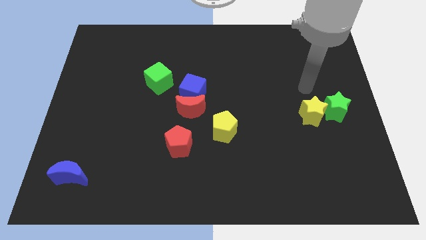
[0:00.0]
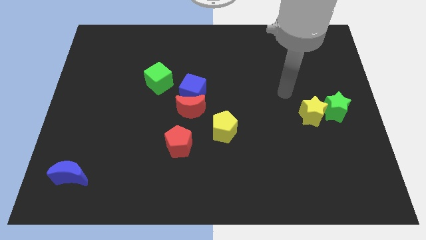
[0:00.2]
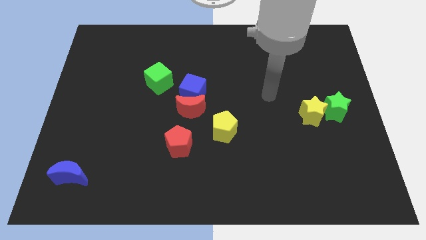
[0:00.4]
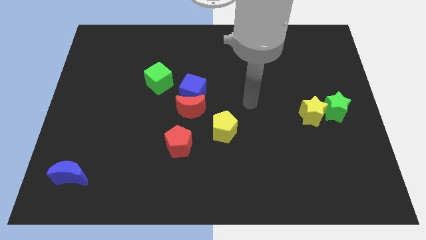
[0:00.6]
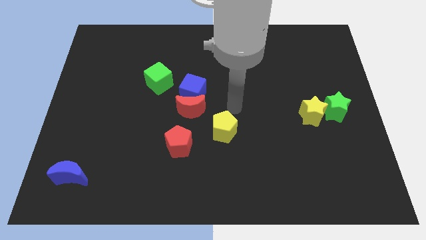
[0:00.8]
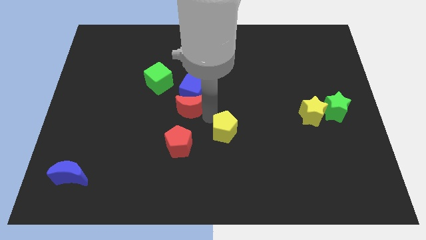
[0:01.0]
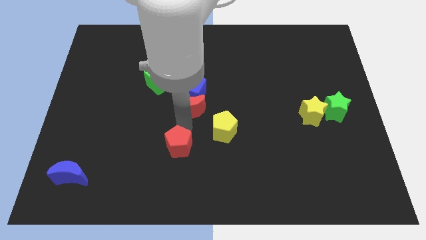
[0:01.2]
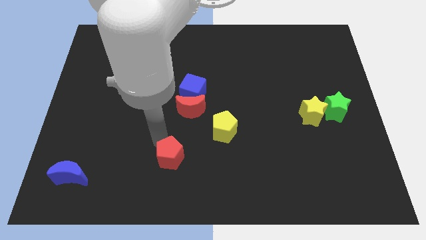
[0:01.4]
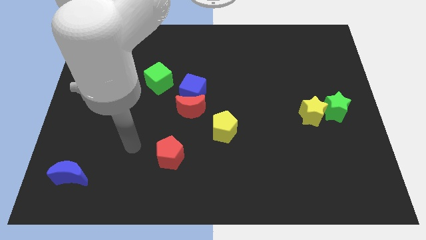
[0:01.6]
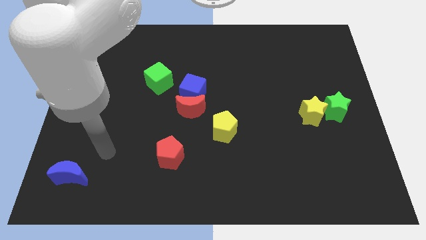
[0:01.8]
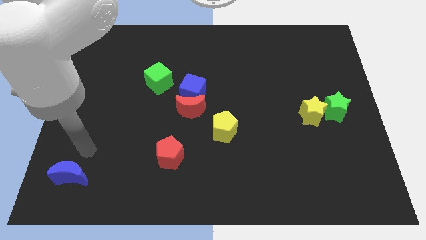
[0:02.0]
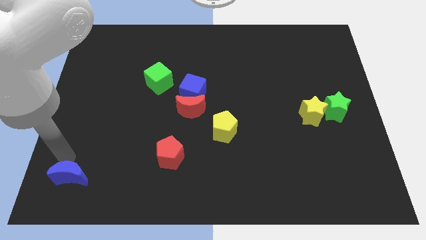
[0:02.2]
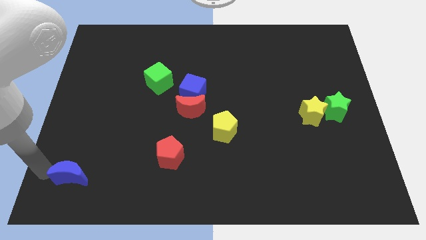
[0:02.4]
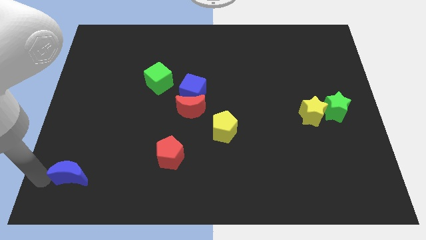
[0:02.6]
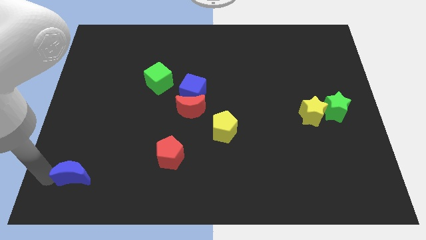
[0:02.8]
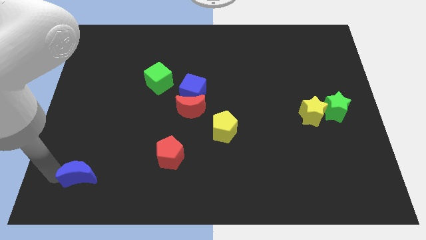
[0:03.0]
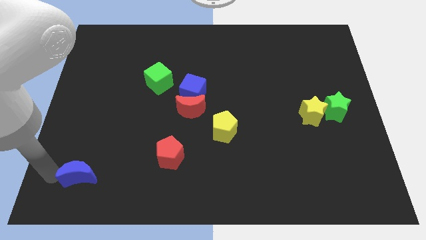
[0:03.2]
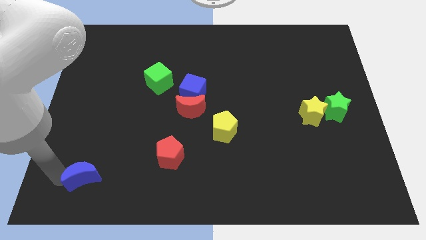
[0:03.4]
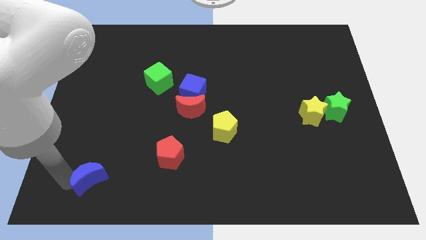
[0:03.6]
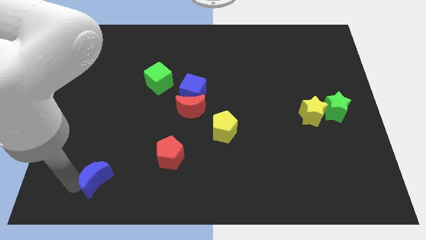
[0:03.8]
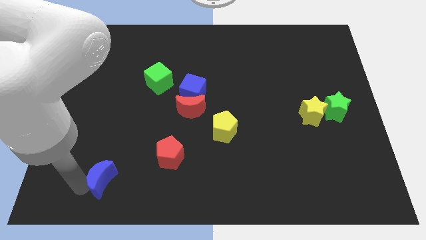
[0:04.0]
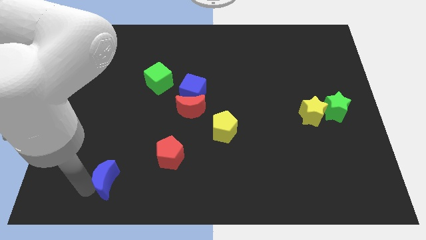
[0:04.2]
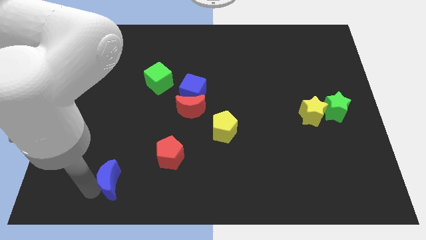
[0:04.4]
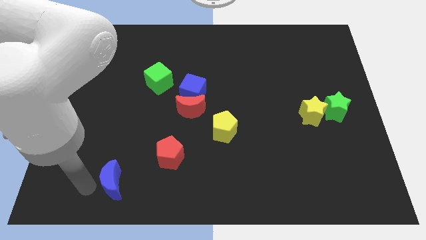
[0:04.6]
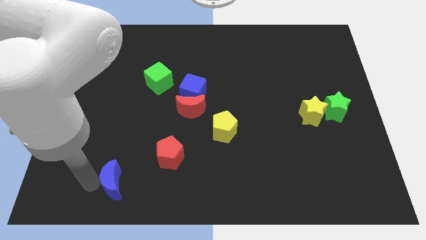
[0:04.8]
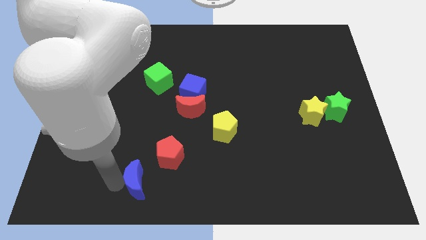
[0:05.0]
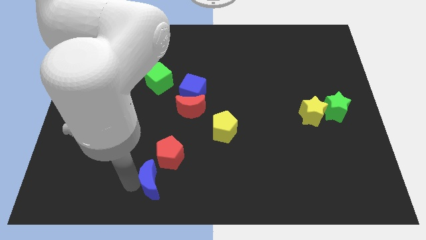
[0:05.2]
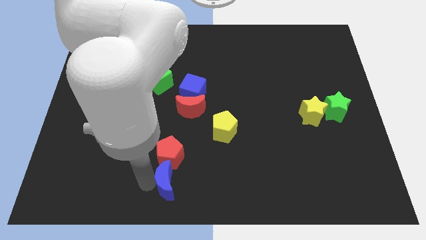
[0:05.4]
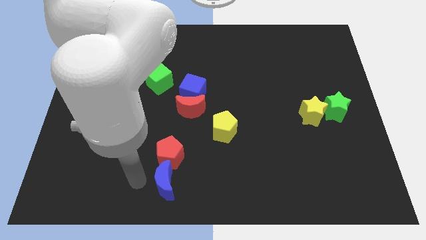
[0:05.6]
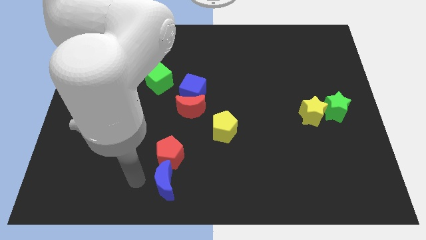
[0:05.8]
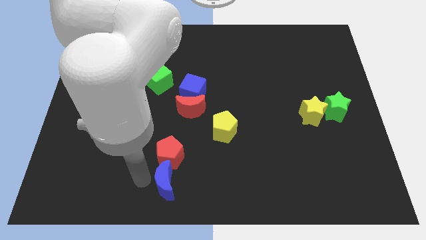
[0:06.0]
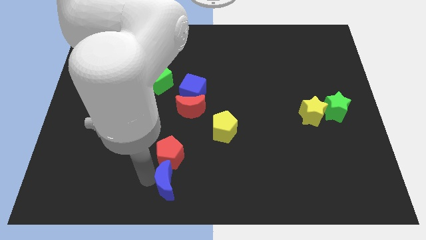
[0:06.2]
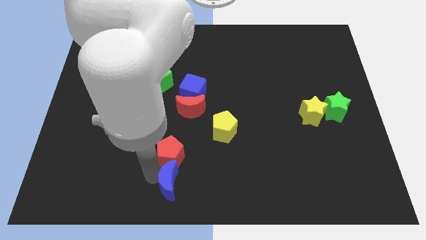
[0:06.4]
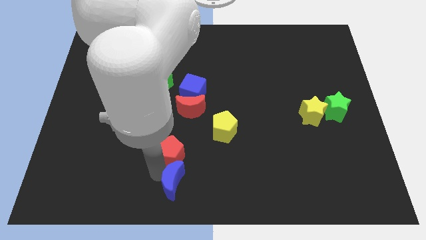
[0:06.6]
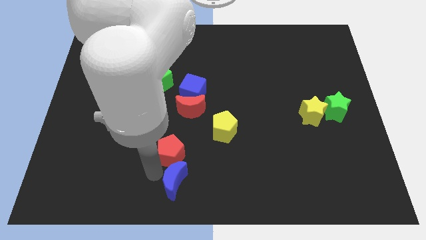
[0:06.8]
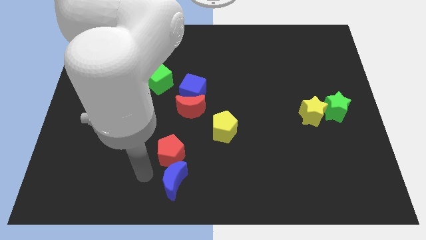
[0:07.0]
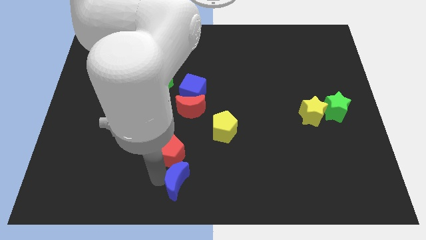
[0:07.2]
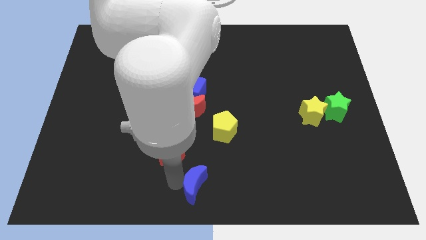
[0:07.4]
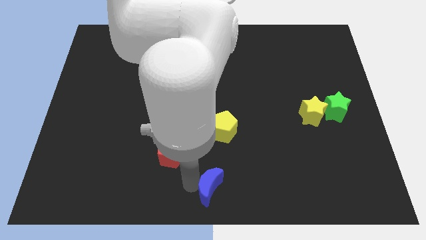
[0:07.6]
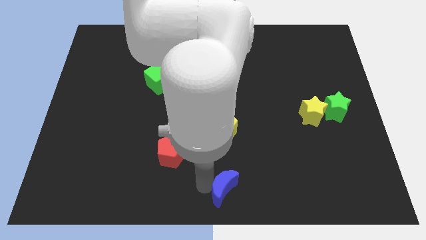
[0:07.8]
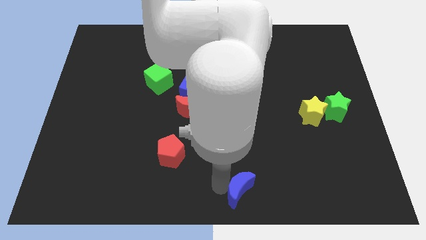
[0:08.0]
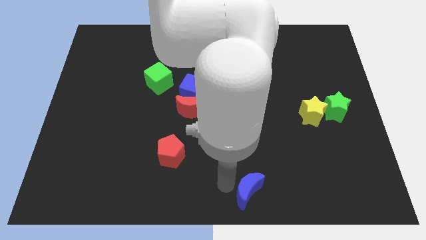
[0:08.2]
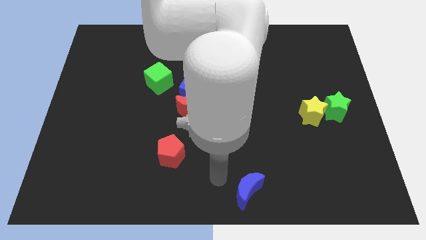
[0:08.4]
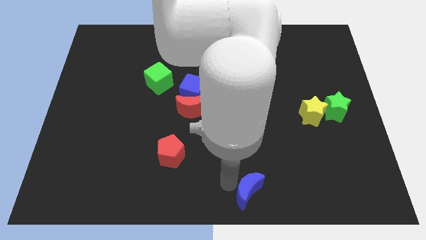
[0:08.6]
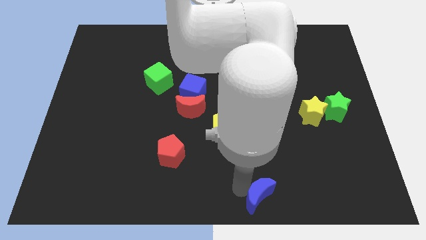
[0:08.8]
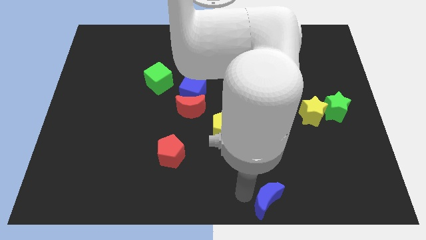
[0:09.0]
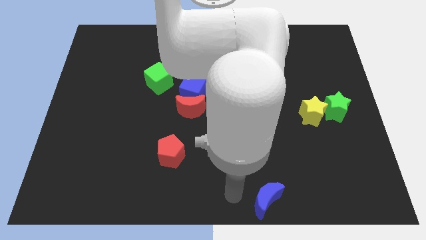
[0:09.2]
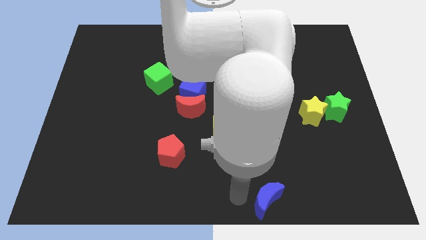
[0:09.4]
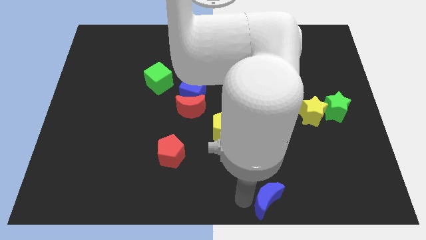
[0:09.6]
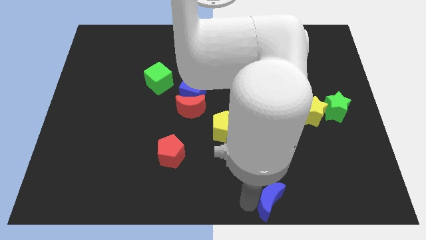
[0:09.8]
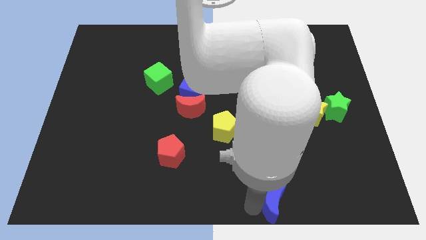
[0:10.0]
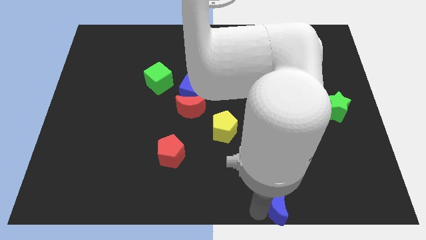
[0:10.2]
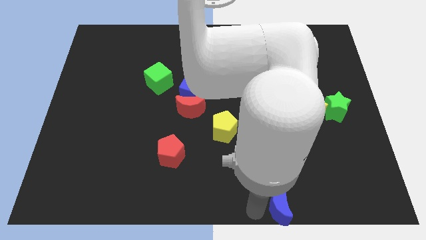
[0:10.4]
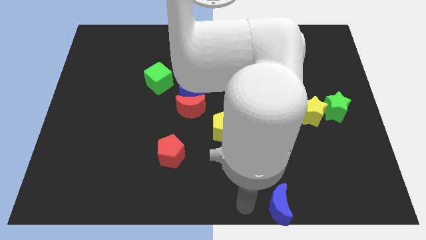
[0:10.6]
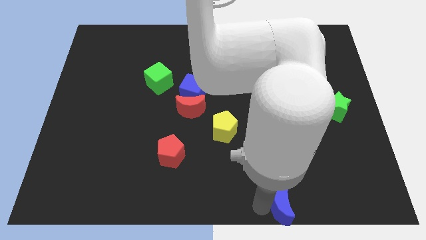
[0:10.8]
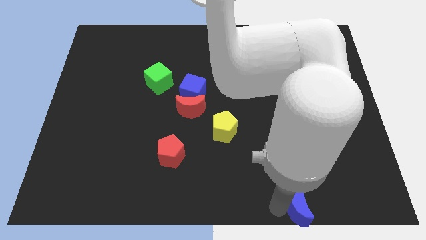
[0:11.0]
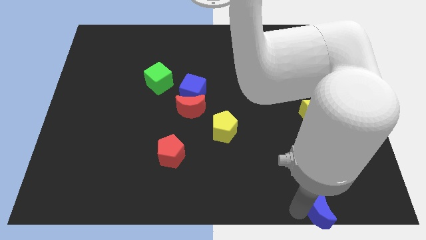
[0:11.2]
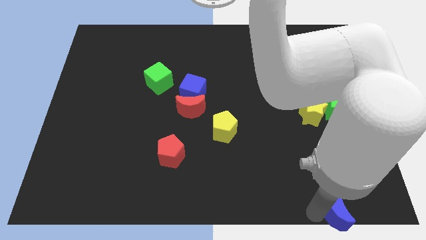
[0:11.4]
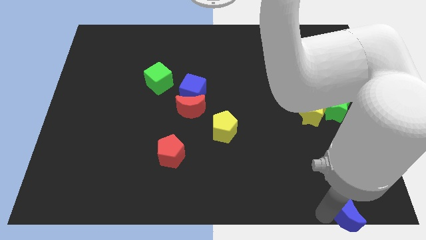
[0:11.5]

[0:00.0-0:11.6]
push the blue moon to the bottom right of the board

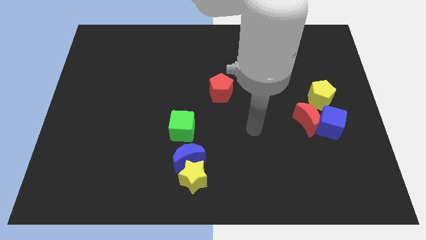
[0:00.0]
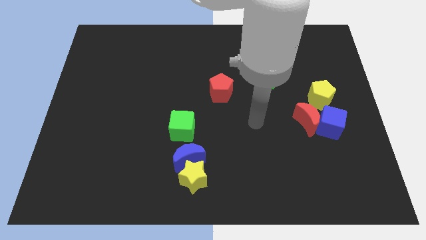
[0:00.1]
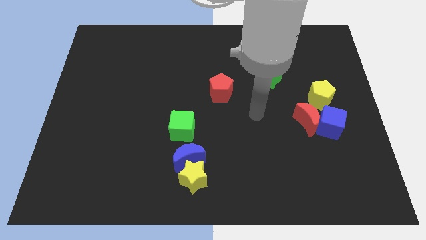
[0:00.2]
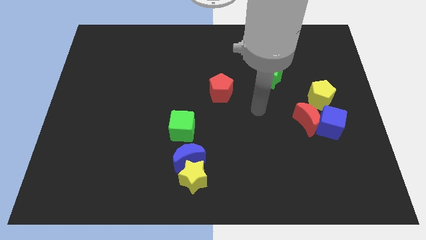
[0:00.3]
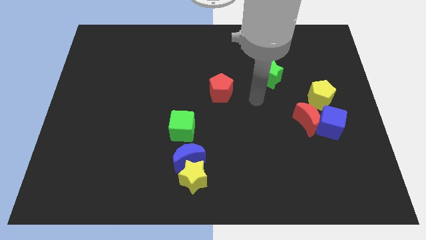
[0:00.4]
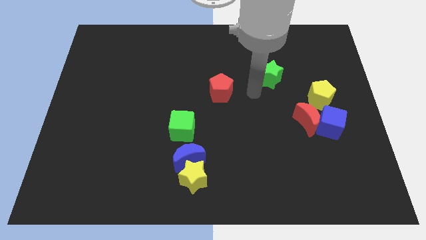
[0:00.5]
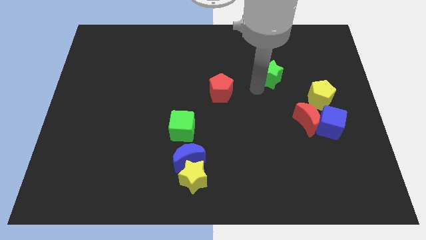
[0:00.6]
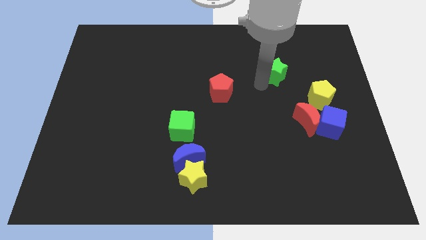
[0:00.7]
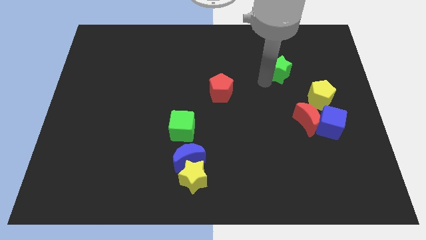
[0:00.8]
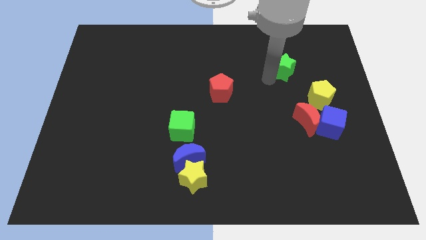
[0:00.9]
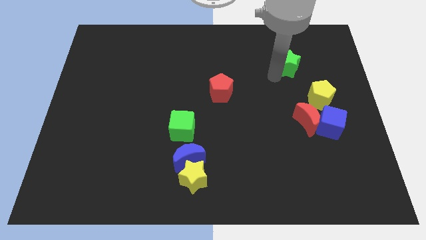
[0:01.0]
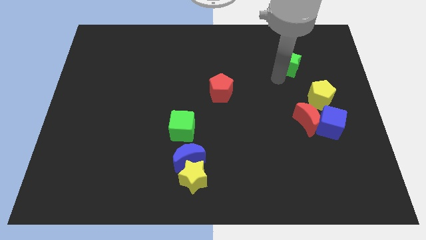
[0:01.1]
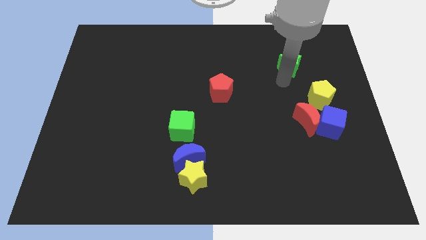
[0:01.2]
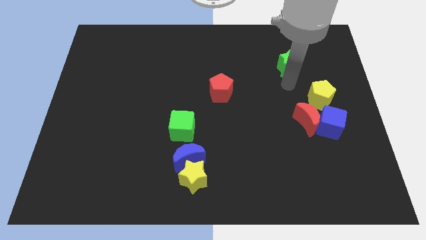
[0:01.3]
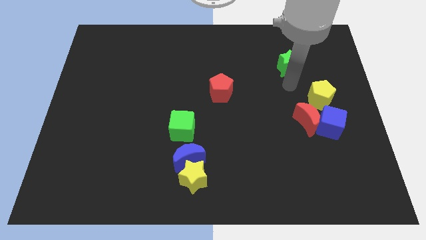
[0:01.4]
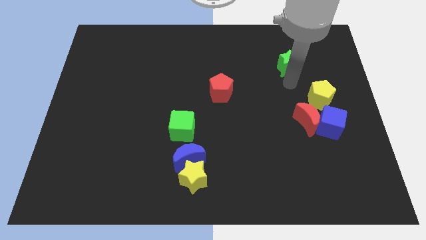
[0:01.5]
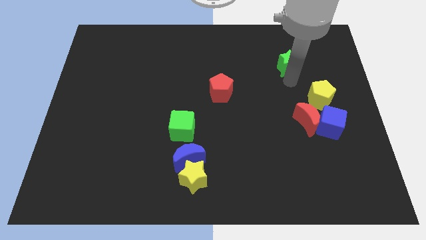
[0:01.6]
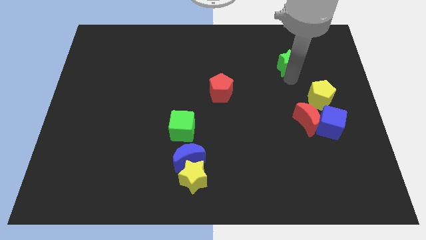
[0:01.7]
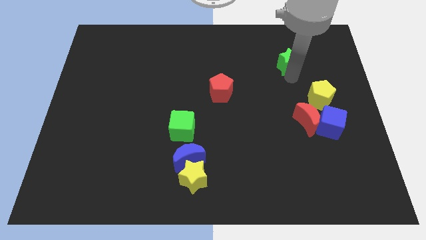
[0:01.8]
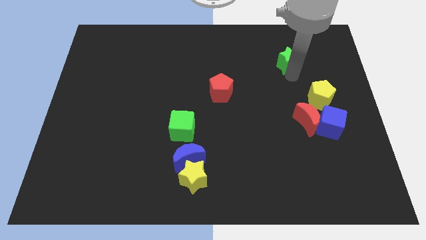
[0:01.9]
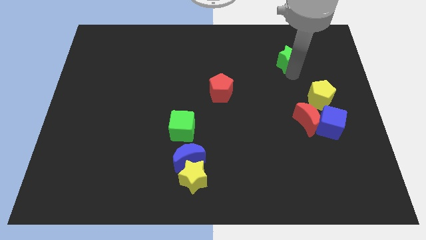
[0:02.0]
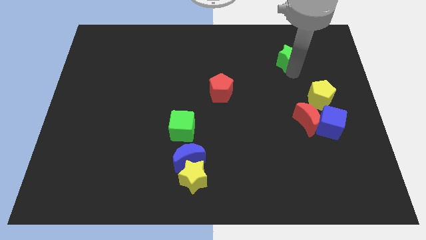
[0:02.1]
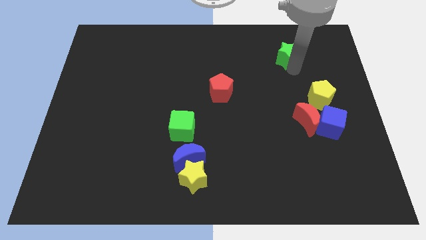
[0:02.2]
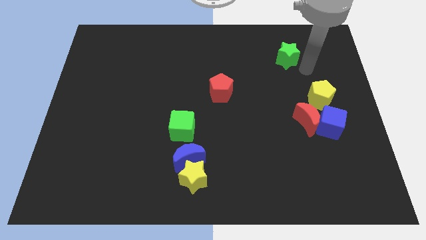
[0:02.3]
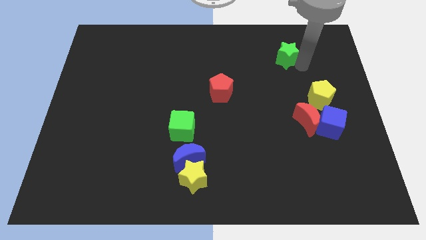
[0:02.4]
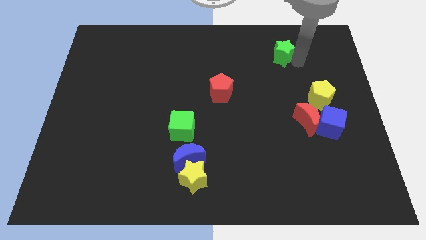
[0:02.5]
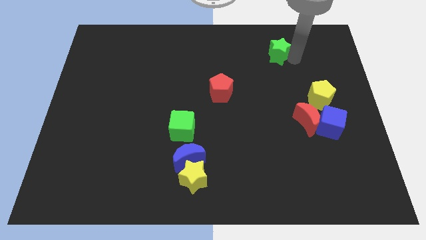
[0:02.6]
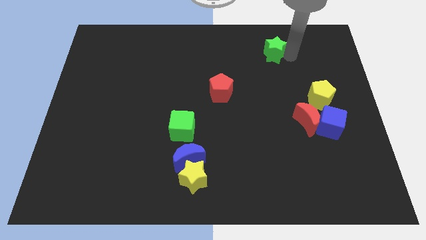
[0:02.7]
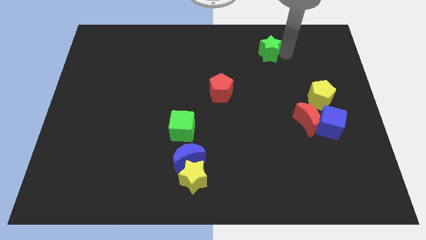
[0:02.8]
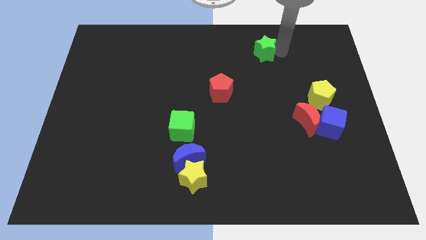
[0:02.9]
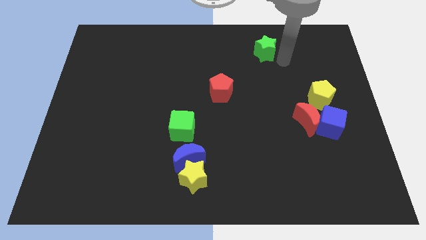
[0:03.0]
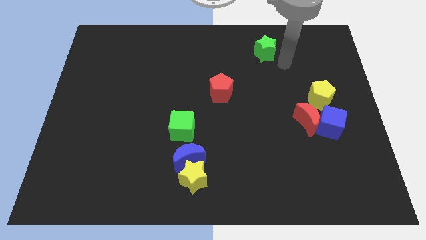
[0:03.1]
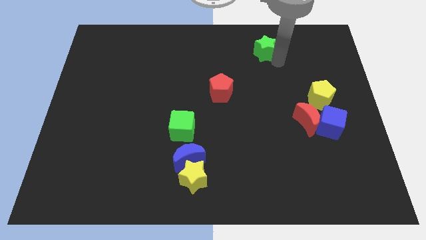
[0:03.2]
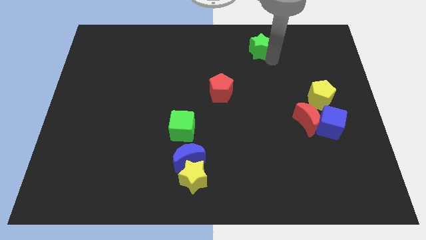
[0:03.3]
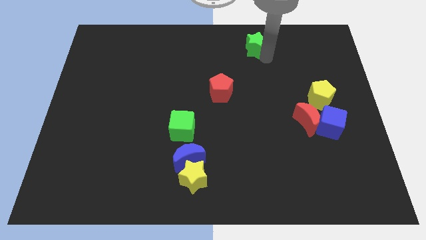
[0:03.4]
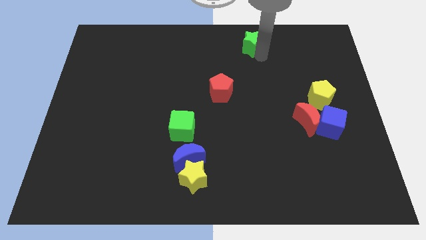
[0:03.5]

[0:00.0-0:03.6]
put the green star to the top side
